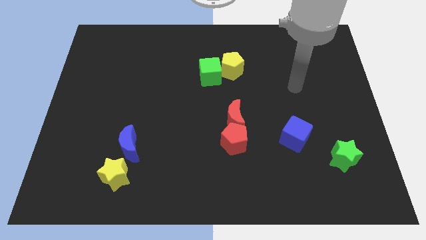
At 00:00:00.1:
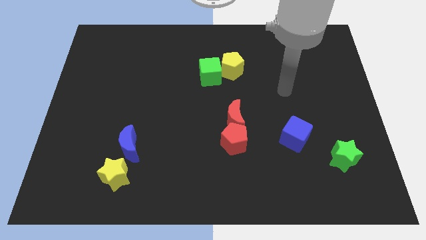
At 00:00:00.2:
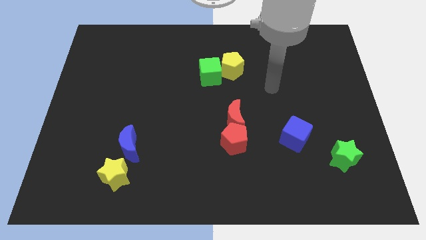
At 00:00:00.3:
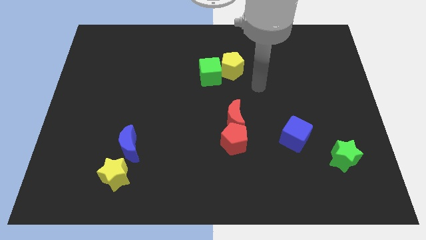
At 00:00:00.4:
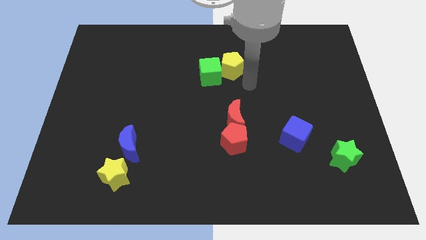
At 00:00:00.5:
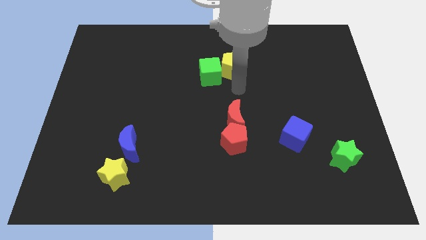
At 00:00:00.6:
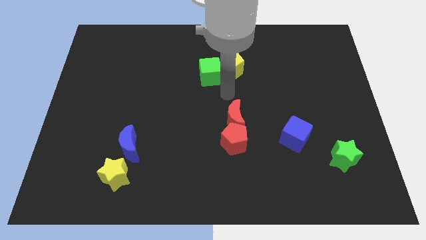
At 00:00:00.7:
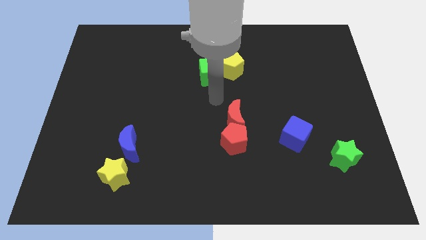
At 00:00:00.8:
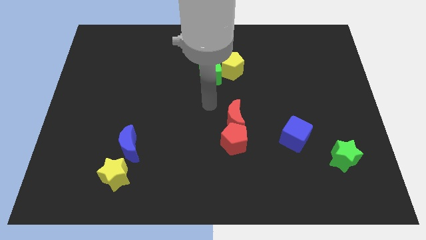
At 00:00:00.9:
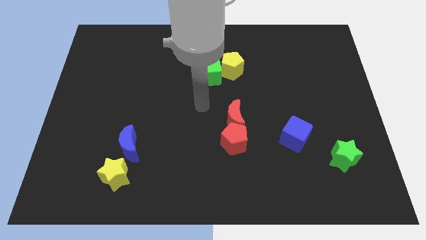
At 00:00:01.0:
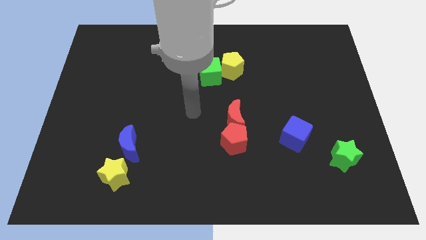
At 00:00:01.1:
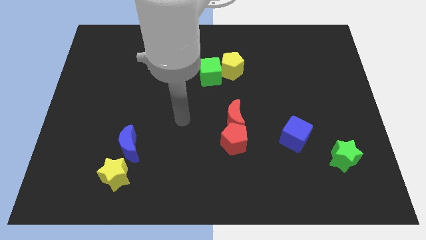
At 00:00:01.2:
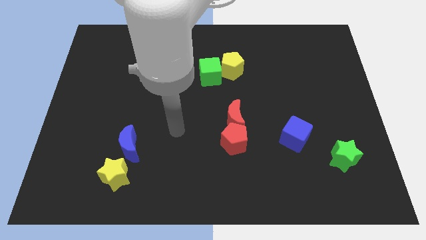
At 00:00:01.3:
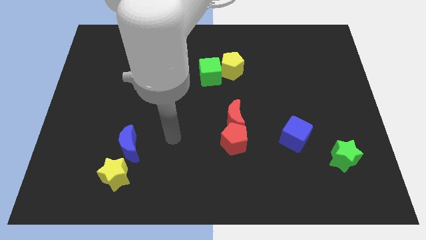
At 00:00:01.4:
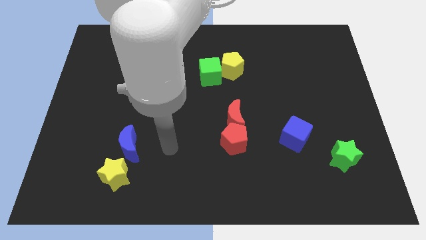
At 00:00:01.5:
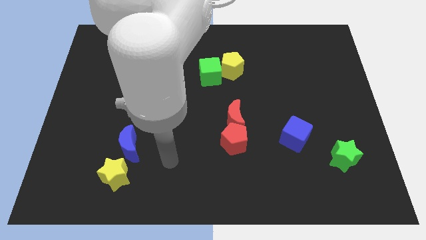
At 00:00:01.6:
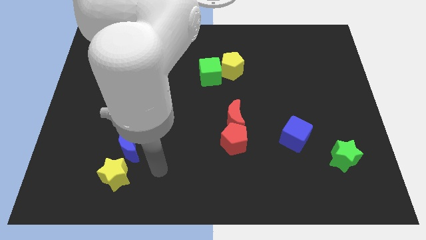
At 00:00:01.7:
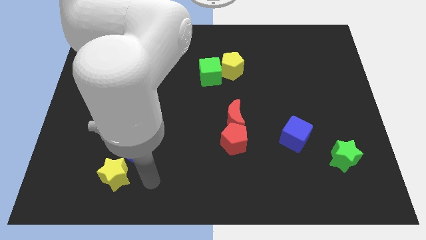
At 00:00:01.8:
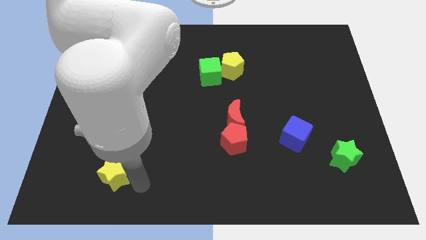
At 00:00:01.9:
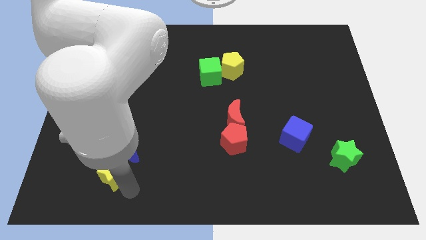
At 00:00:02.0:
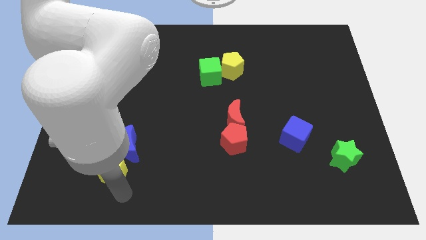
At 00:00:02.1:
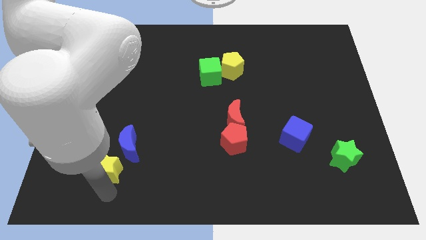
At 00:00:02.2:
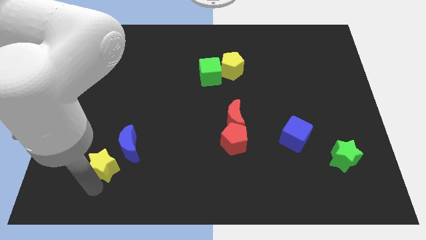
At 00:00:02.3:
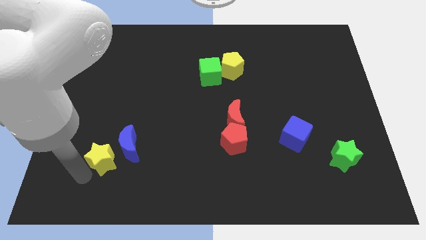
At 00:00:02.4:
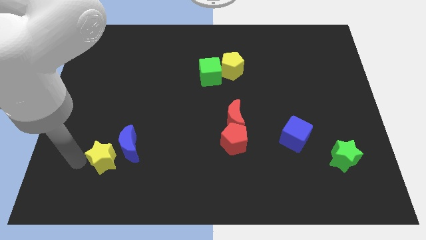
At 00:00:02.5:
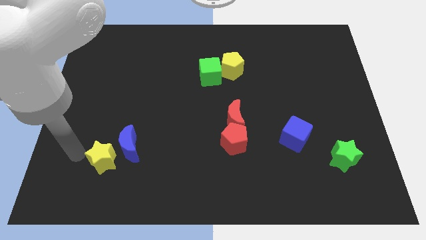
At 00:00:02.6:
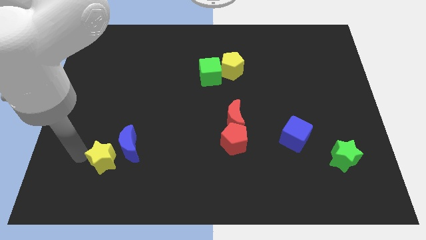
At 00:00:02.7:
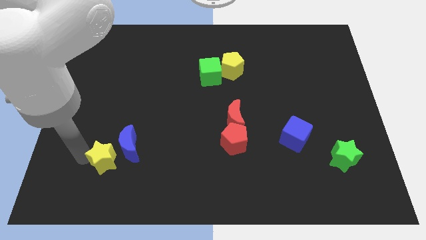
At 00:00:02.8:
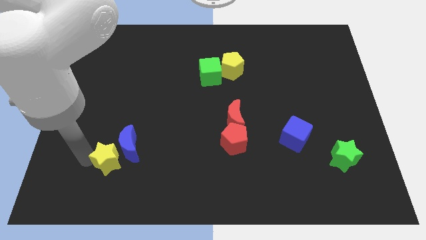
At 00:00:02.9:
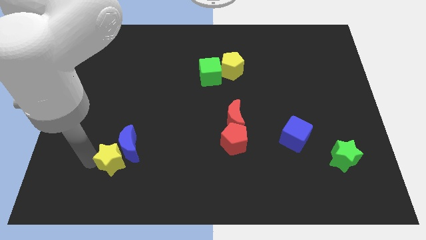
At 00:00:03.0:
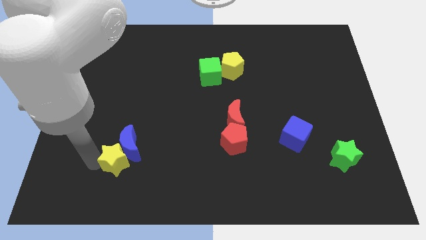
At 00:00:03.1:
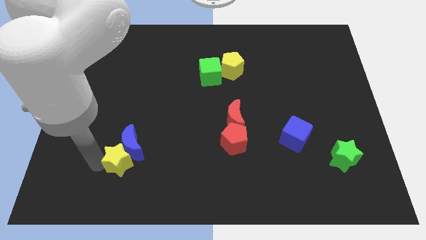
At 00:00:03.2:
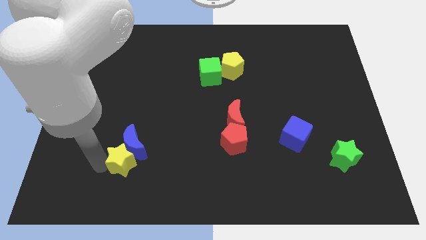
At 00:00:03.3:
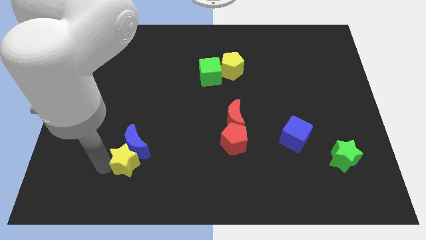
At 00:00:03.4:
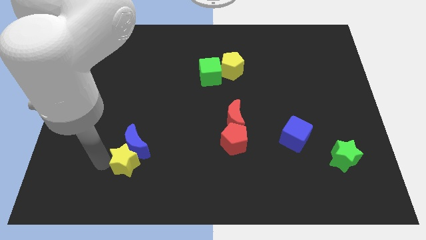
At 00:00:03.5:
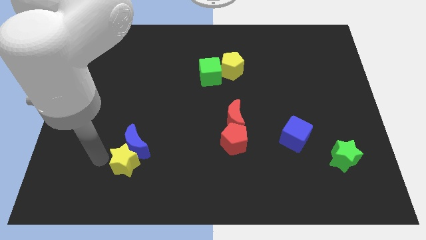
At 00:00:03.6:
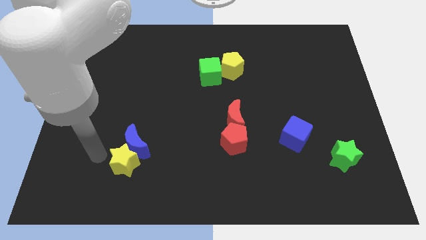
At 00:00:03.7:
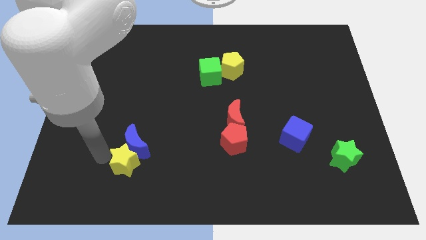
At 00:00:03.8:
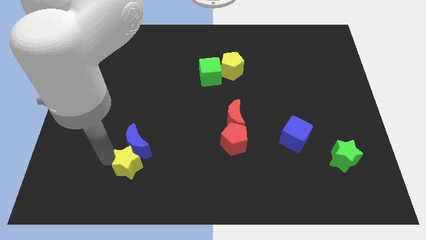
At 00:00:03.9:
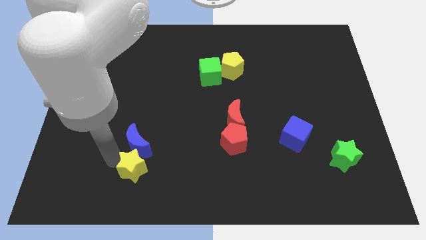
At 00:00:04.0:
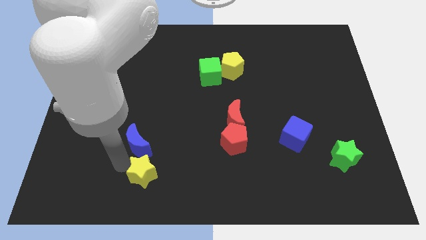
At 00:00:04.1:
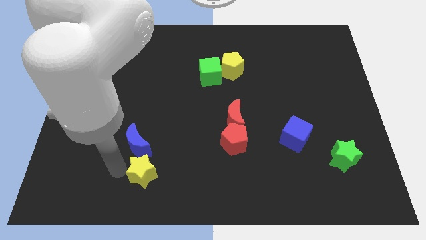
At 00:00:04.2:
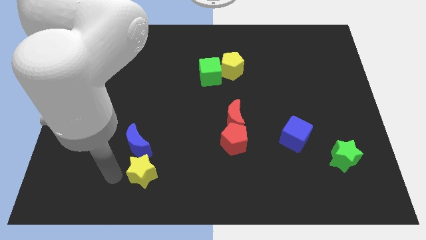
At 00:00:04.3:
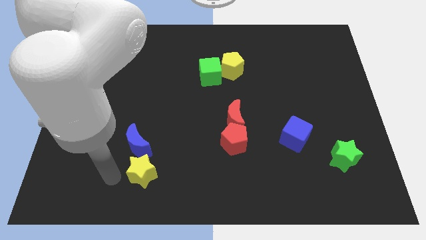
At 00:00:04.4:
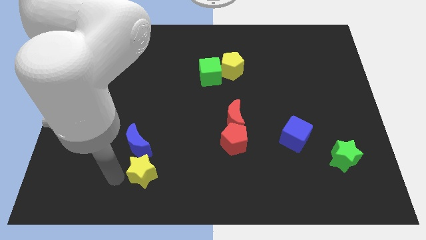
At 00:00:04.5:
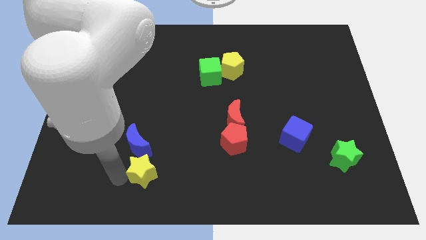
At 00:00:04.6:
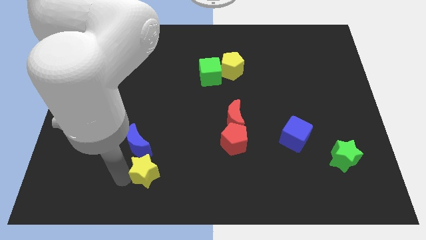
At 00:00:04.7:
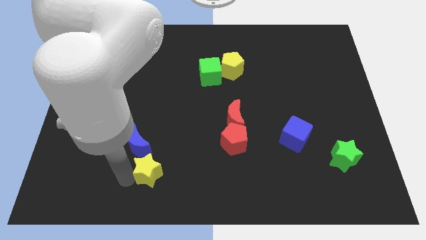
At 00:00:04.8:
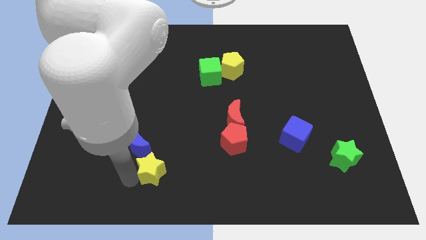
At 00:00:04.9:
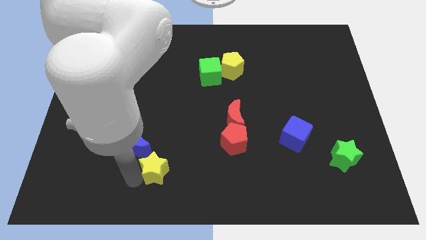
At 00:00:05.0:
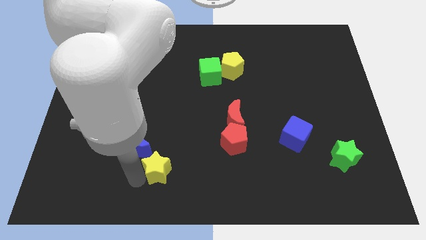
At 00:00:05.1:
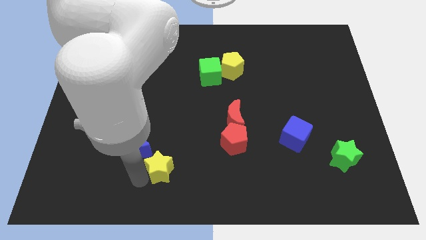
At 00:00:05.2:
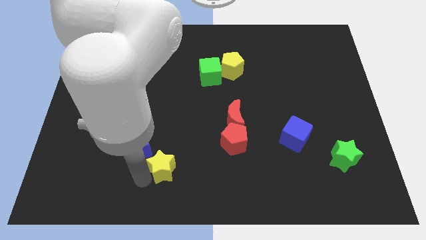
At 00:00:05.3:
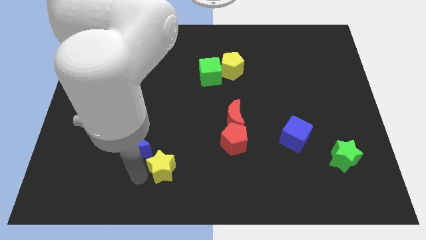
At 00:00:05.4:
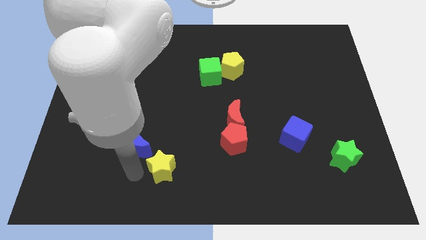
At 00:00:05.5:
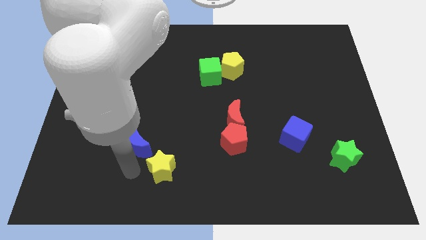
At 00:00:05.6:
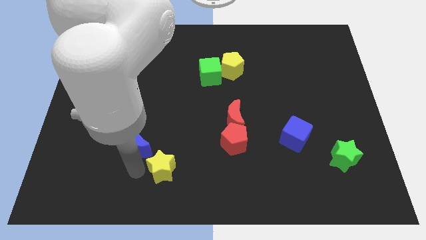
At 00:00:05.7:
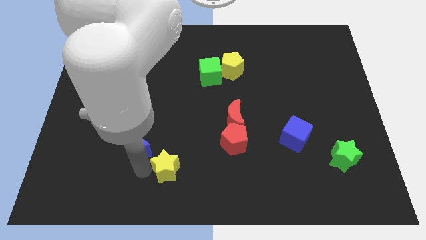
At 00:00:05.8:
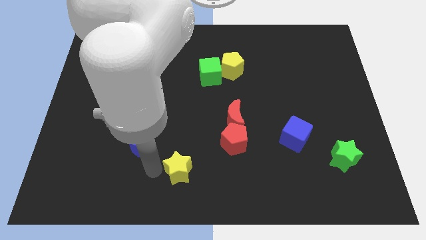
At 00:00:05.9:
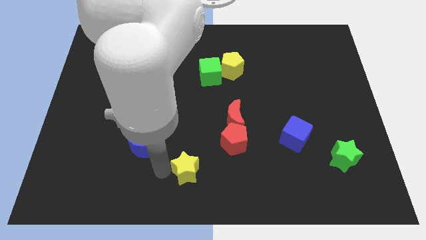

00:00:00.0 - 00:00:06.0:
put the yellow star diagonally down and to the left of the red pentagon

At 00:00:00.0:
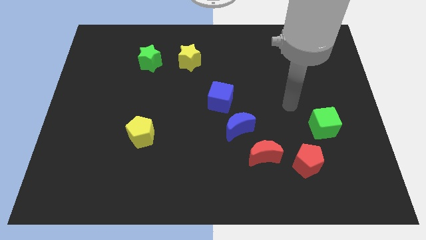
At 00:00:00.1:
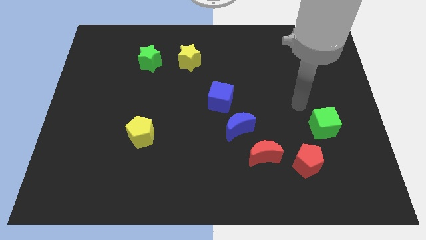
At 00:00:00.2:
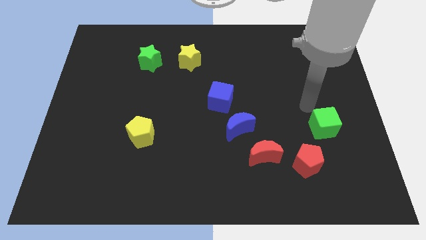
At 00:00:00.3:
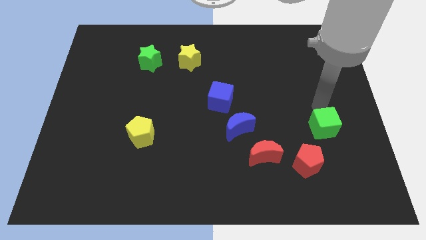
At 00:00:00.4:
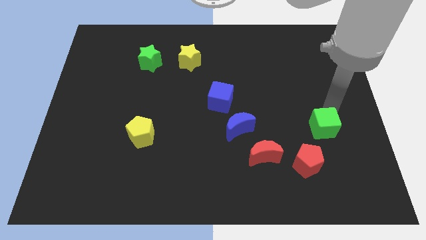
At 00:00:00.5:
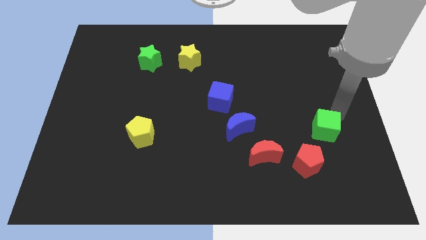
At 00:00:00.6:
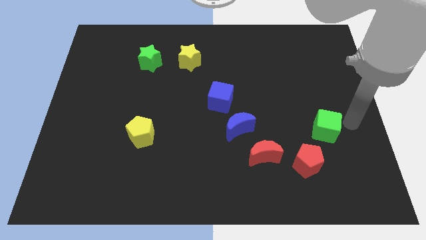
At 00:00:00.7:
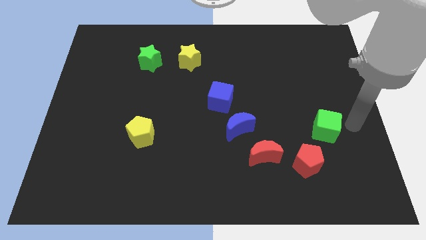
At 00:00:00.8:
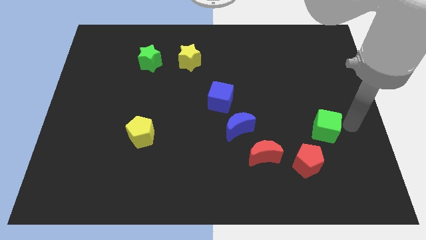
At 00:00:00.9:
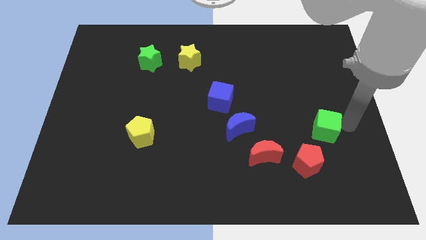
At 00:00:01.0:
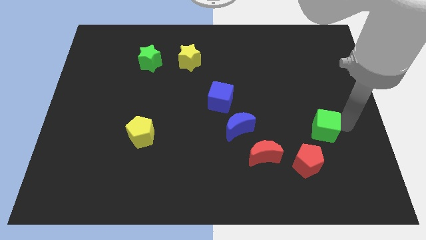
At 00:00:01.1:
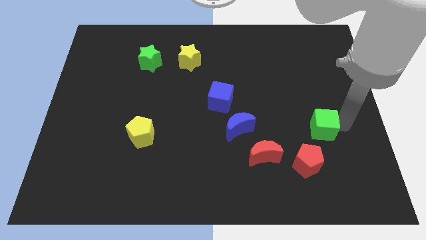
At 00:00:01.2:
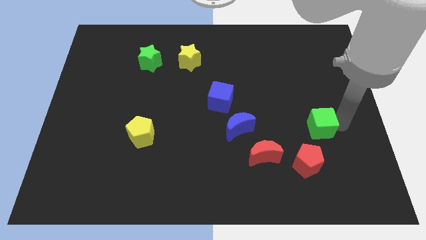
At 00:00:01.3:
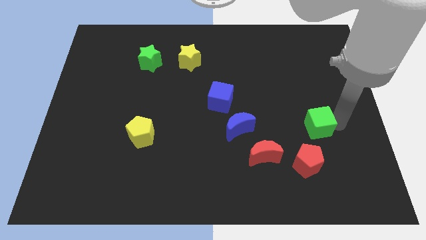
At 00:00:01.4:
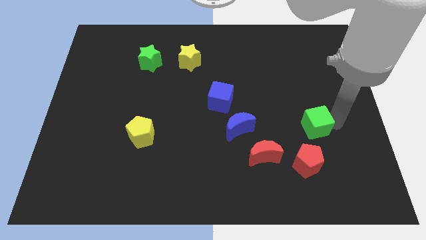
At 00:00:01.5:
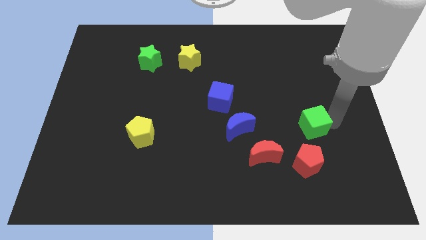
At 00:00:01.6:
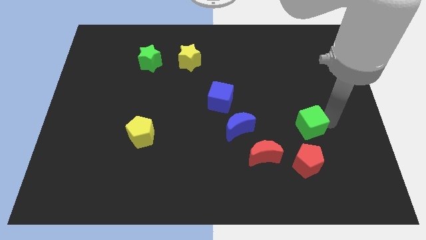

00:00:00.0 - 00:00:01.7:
move the green cube right of the blue moon
